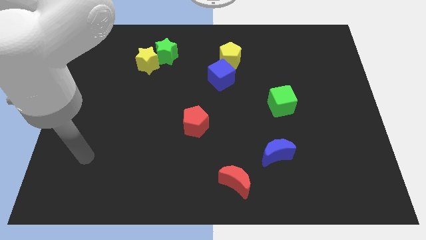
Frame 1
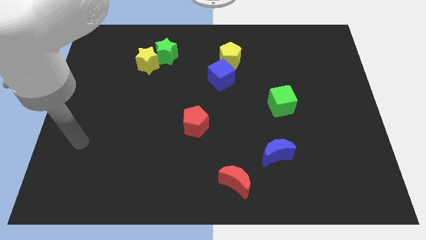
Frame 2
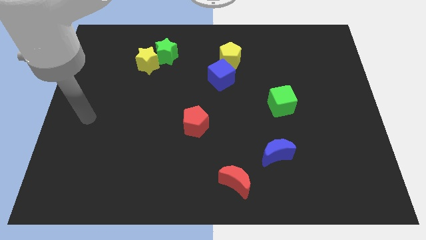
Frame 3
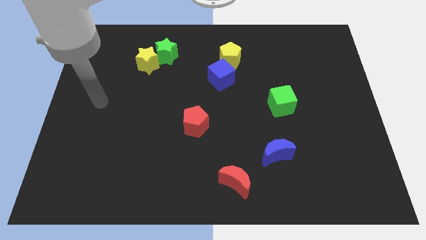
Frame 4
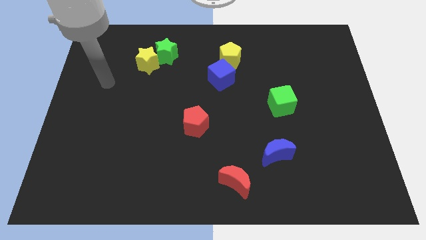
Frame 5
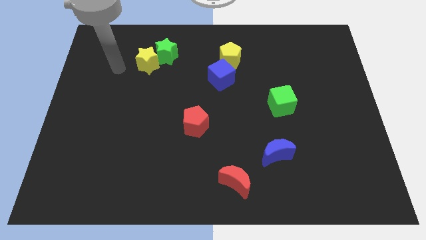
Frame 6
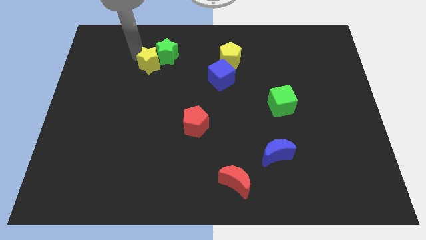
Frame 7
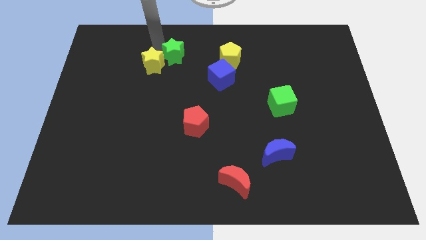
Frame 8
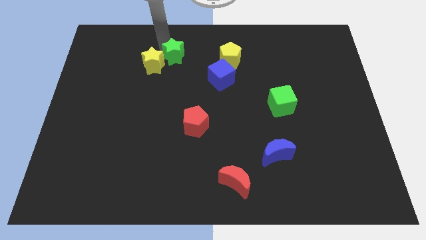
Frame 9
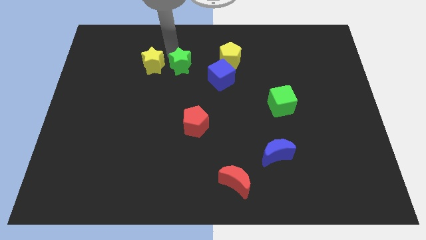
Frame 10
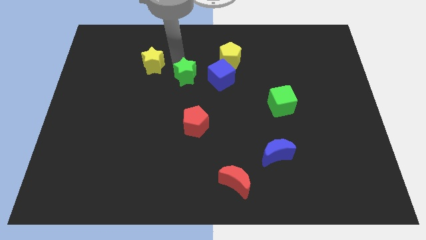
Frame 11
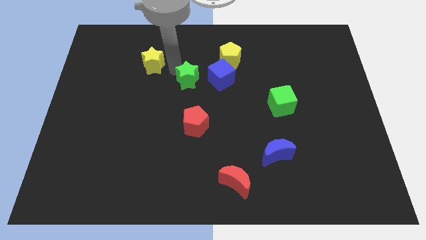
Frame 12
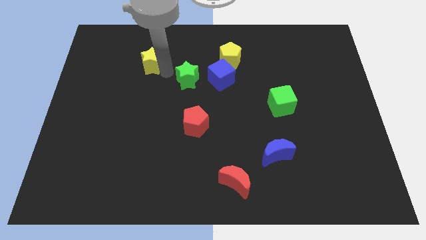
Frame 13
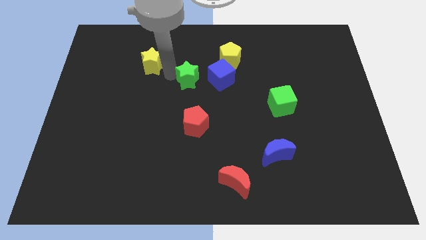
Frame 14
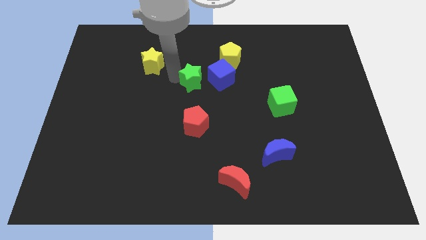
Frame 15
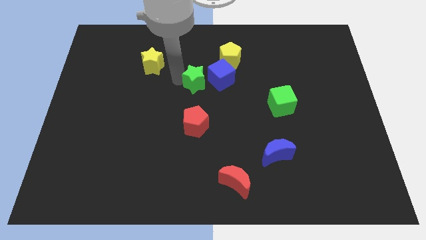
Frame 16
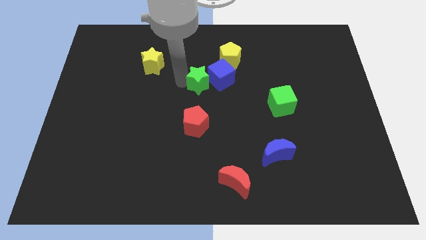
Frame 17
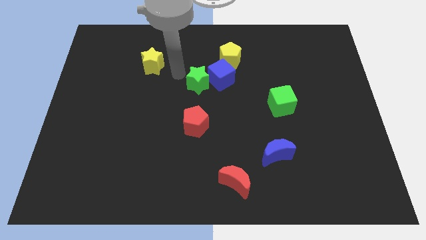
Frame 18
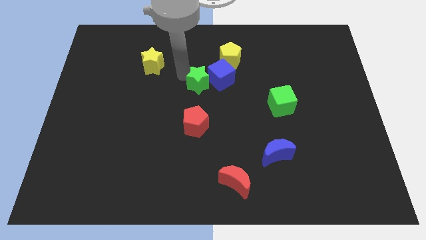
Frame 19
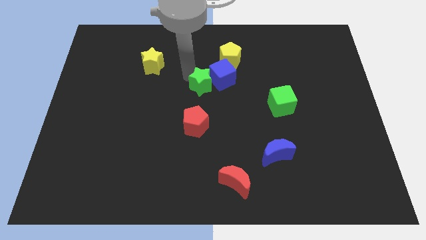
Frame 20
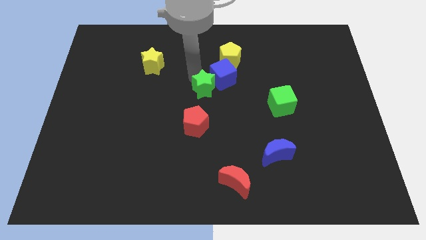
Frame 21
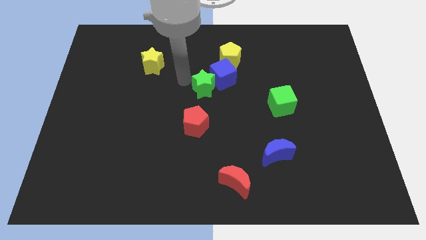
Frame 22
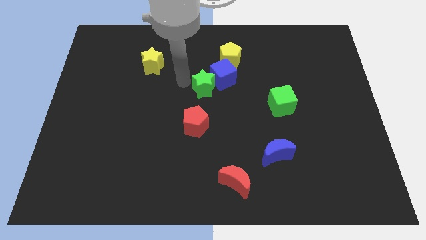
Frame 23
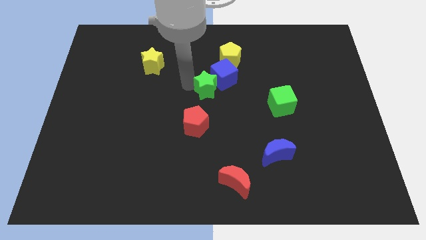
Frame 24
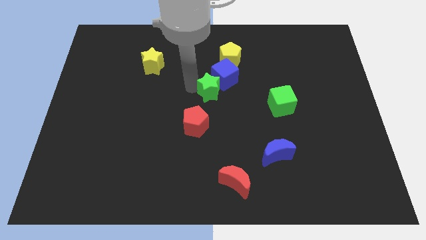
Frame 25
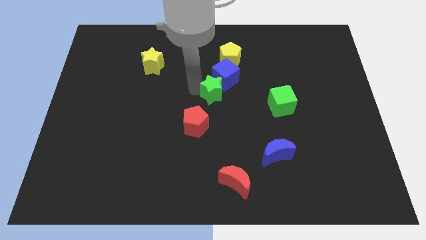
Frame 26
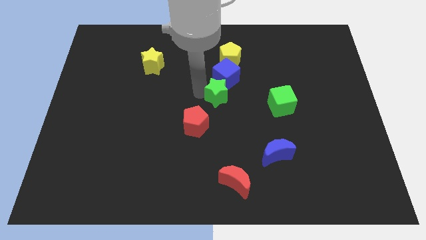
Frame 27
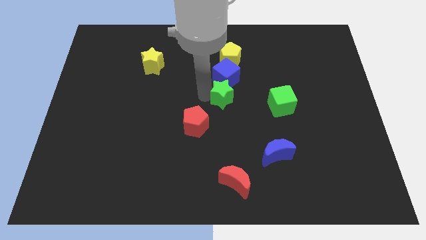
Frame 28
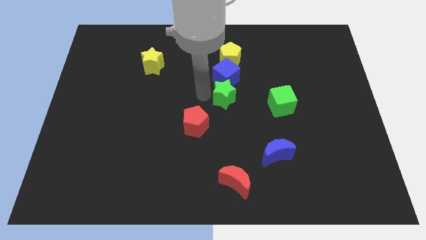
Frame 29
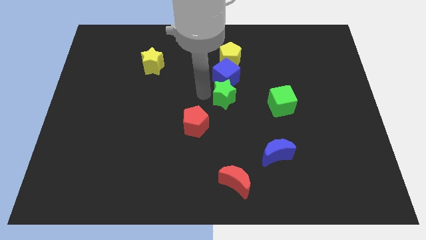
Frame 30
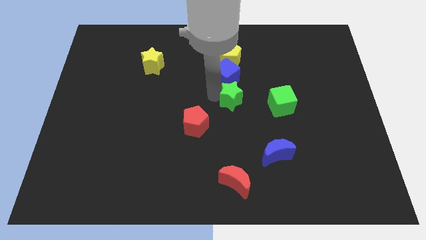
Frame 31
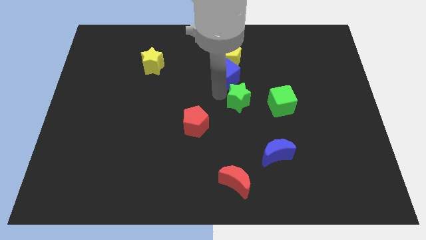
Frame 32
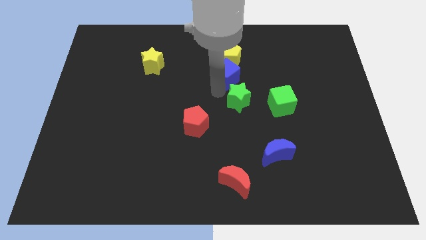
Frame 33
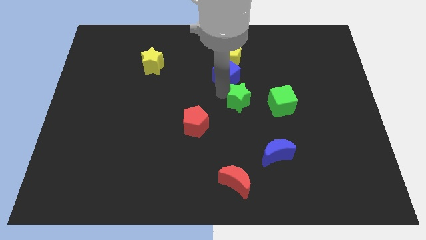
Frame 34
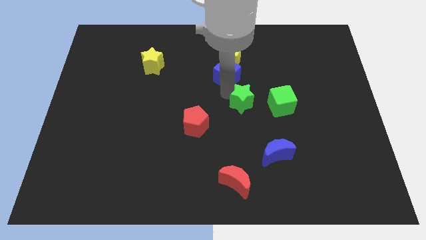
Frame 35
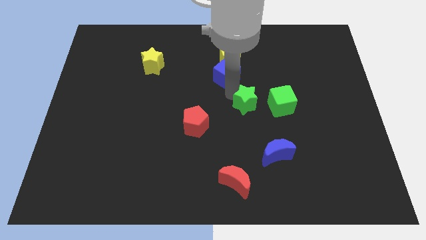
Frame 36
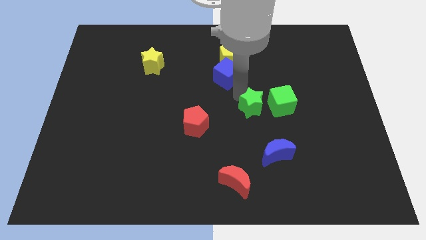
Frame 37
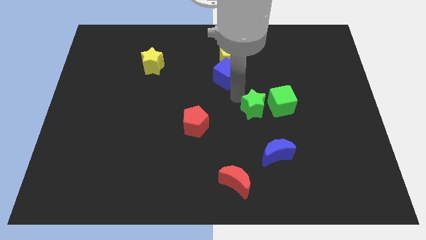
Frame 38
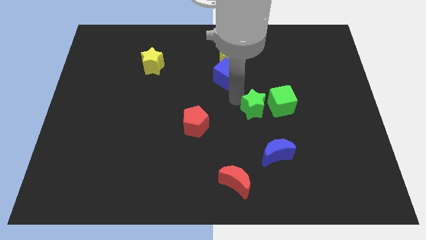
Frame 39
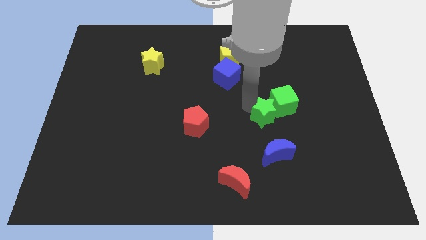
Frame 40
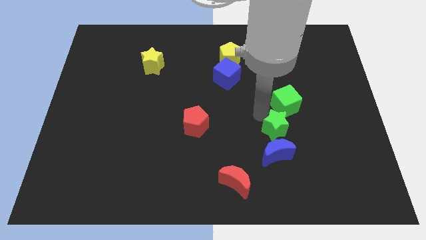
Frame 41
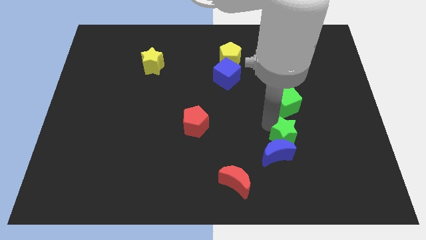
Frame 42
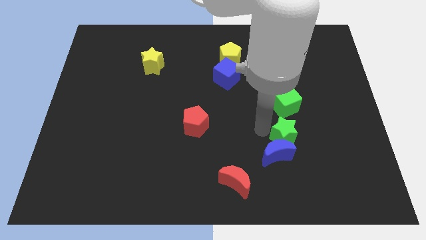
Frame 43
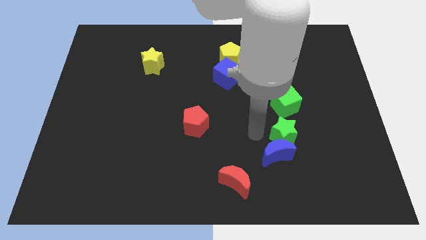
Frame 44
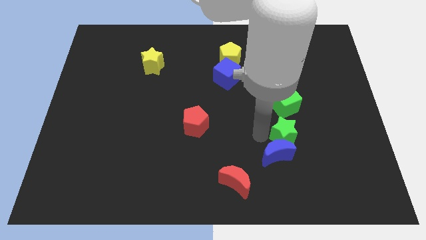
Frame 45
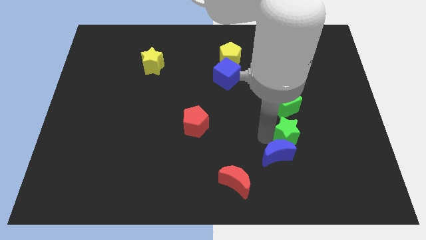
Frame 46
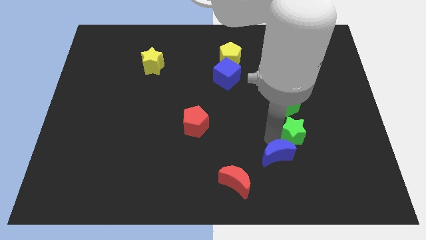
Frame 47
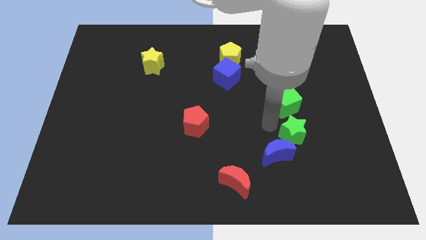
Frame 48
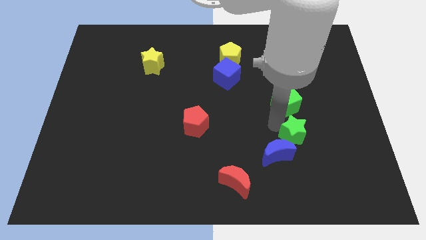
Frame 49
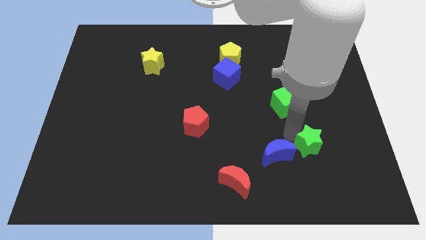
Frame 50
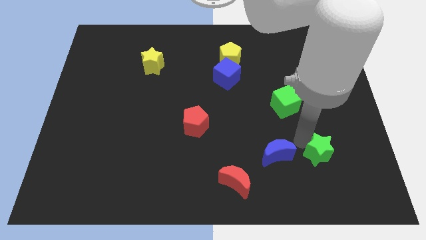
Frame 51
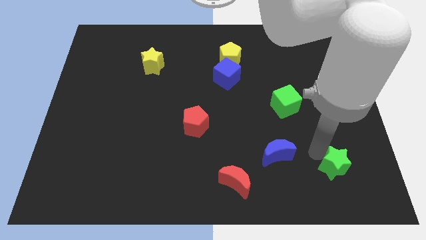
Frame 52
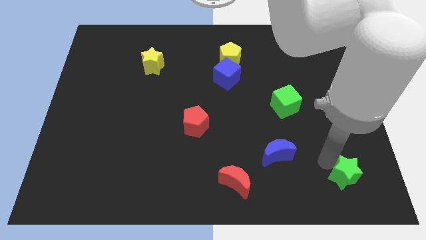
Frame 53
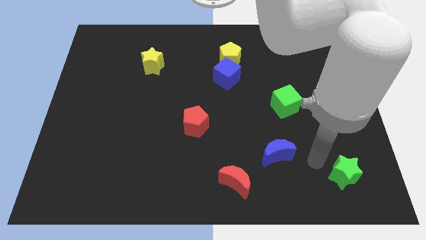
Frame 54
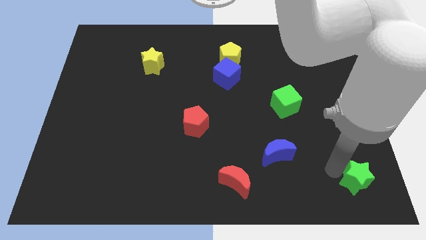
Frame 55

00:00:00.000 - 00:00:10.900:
push the green star to the bottom right of the board
